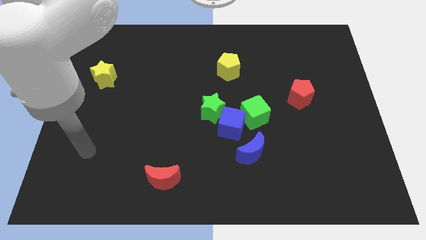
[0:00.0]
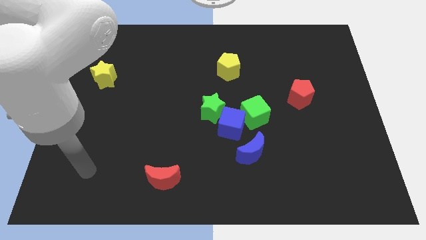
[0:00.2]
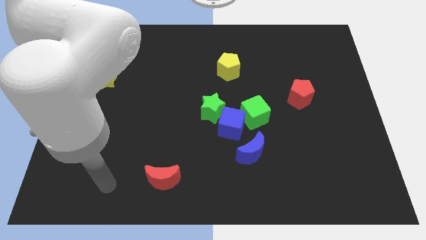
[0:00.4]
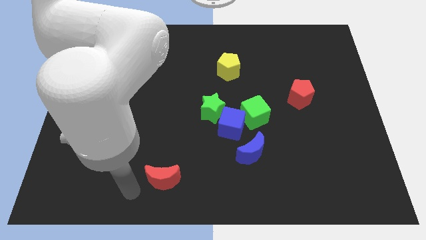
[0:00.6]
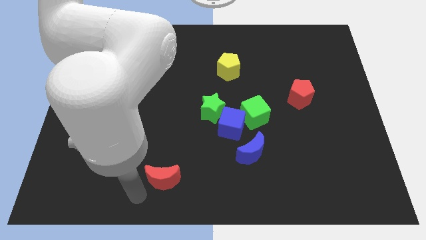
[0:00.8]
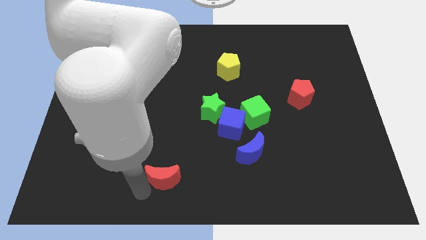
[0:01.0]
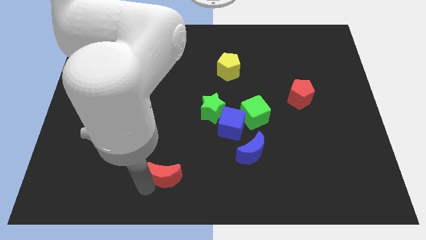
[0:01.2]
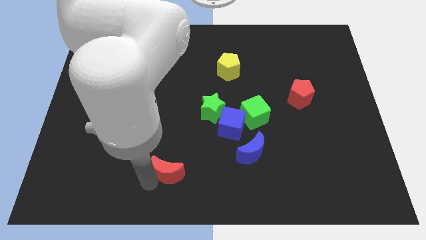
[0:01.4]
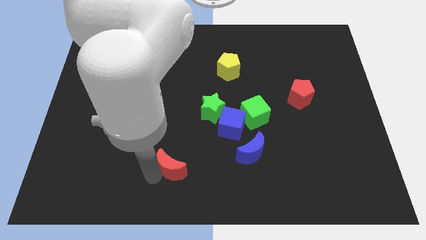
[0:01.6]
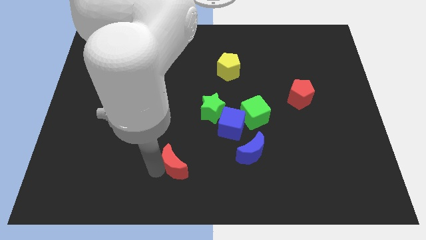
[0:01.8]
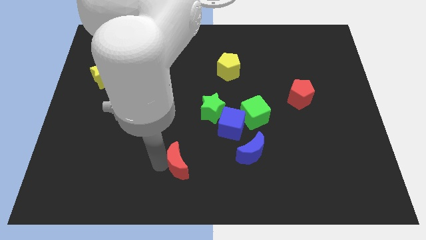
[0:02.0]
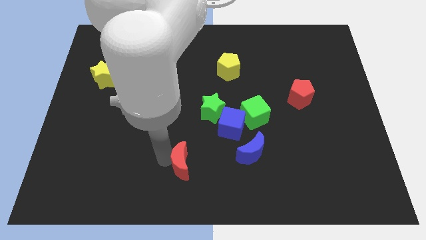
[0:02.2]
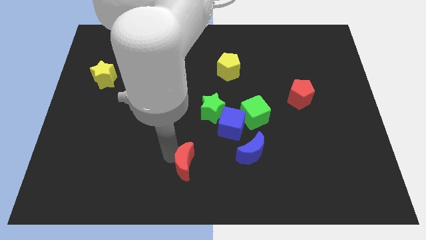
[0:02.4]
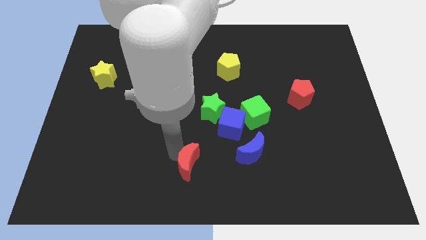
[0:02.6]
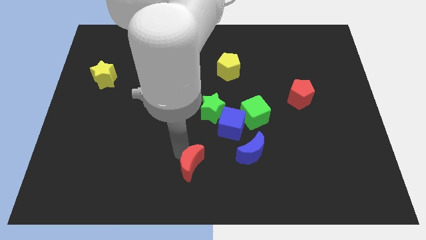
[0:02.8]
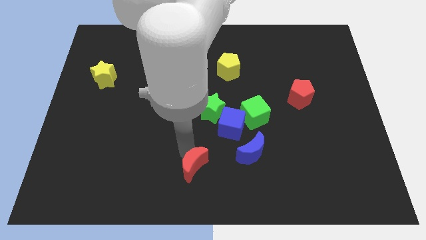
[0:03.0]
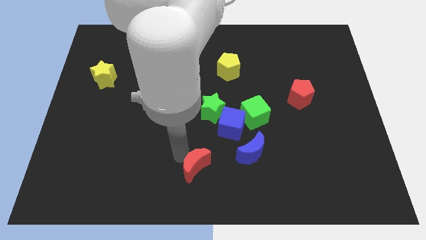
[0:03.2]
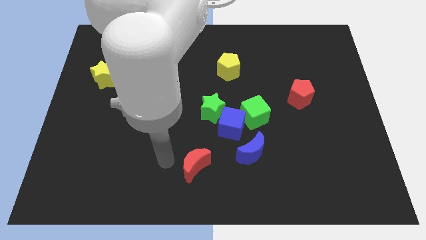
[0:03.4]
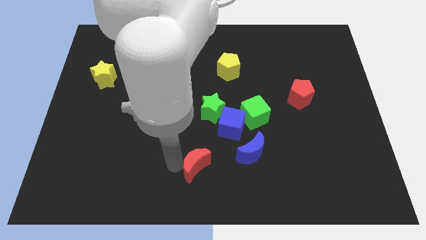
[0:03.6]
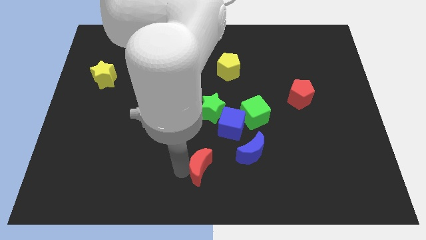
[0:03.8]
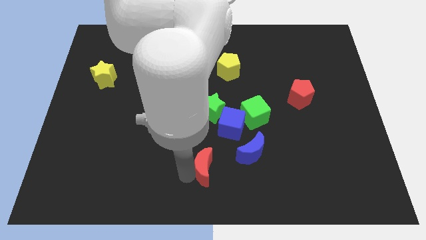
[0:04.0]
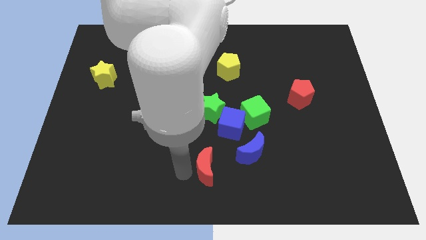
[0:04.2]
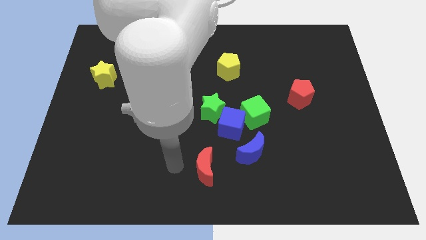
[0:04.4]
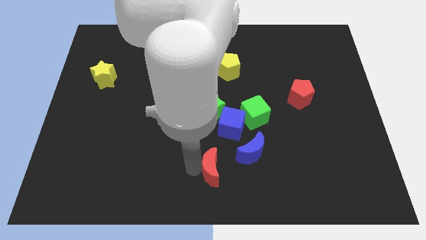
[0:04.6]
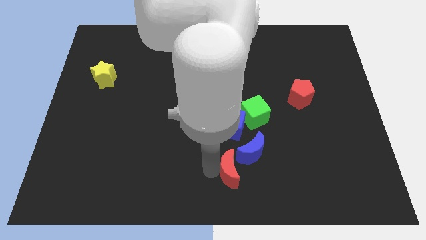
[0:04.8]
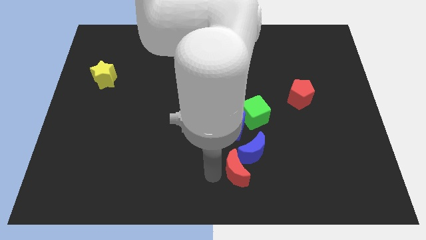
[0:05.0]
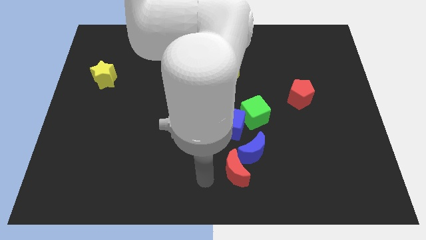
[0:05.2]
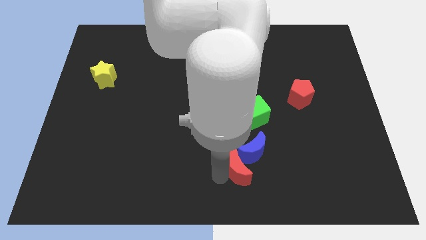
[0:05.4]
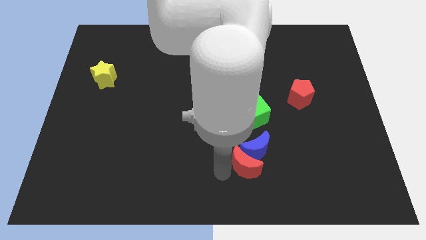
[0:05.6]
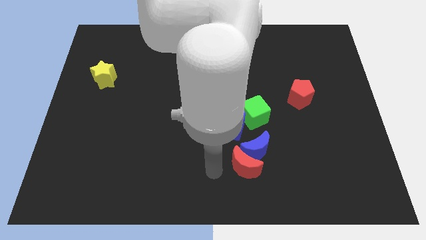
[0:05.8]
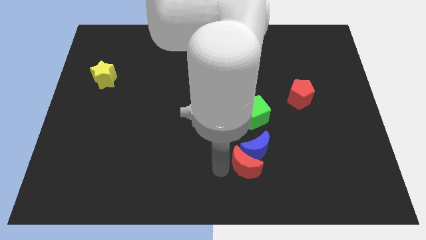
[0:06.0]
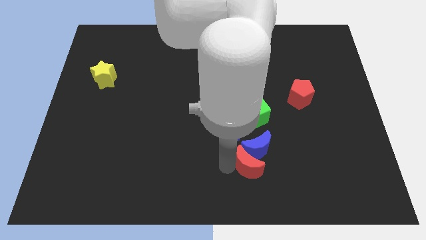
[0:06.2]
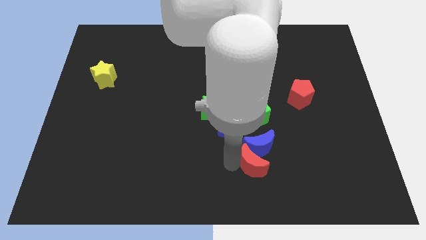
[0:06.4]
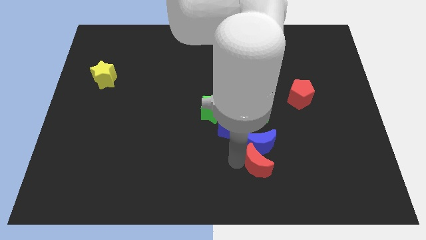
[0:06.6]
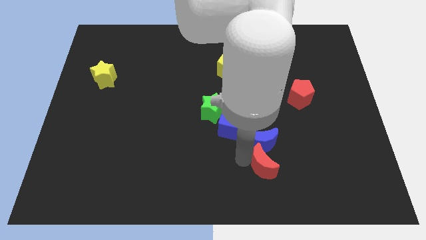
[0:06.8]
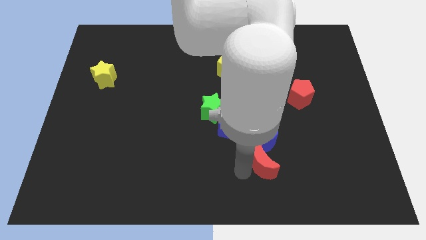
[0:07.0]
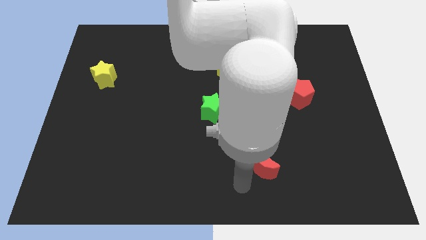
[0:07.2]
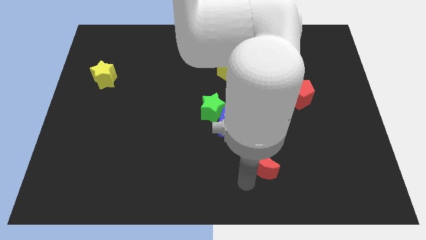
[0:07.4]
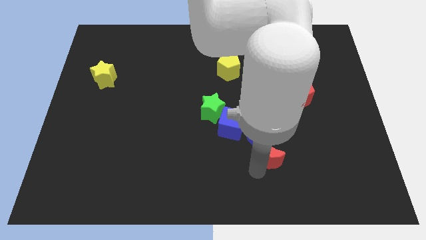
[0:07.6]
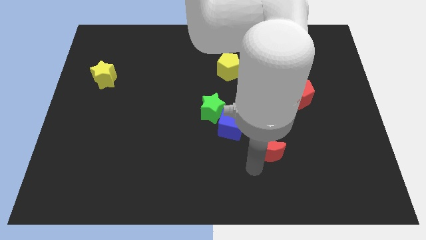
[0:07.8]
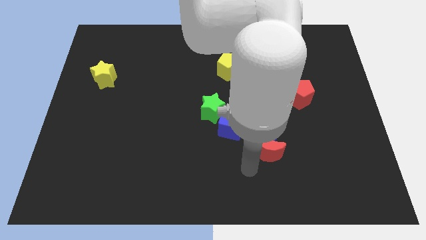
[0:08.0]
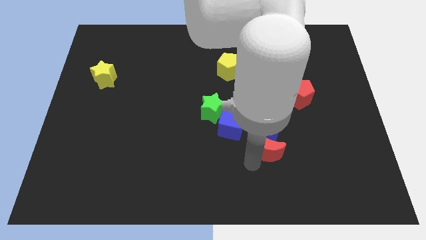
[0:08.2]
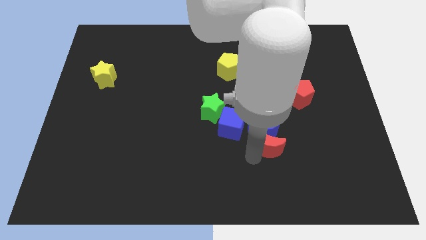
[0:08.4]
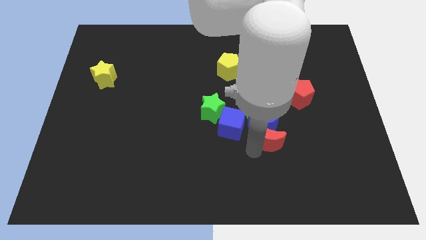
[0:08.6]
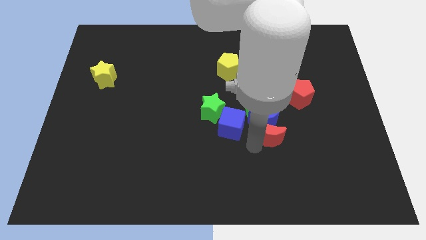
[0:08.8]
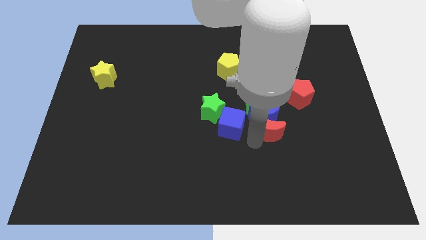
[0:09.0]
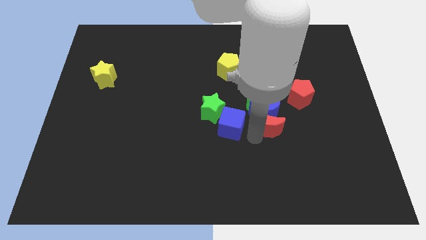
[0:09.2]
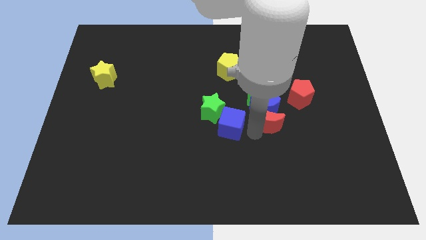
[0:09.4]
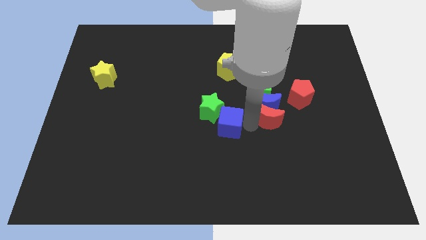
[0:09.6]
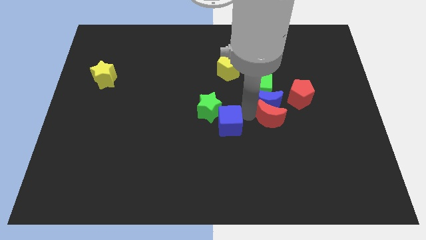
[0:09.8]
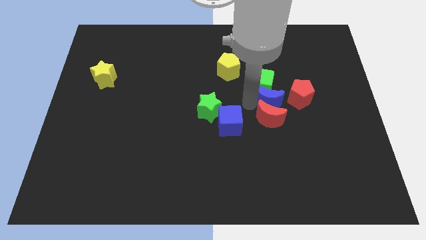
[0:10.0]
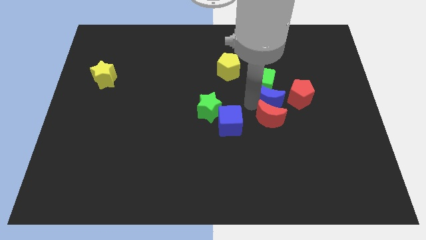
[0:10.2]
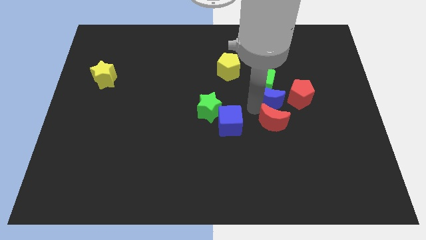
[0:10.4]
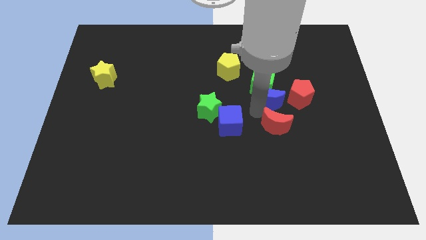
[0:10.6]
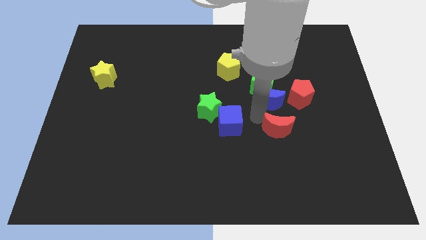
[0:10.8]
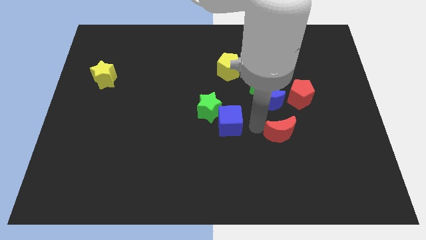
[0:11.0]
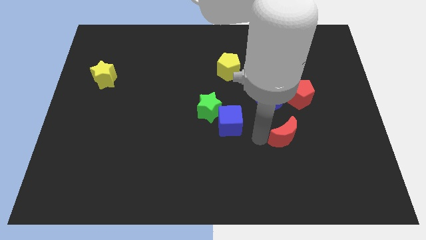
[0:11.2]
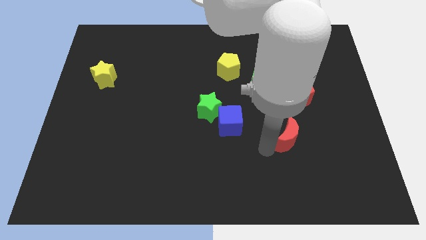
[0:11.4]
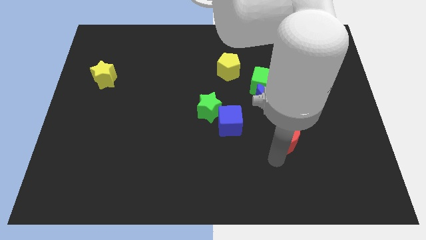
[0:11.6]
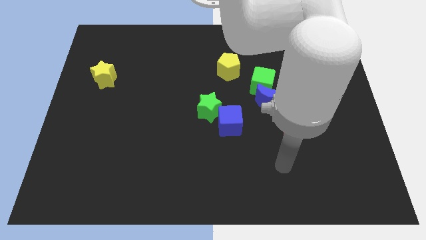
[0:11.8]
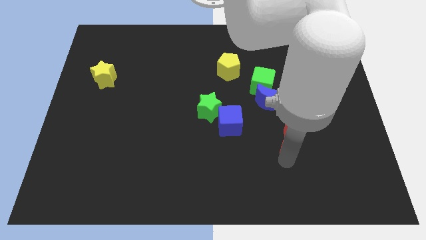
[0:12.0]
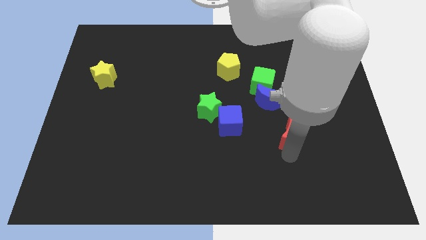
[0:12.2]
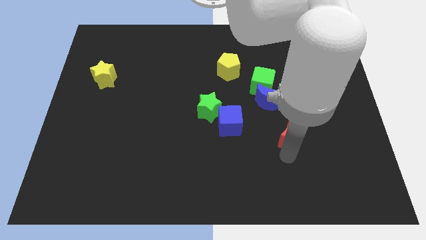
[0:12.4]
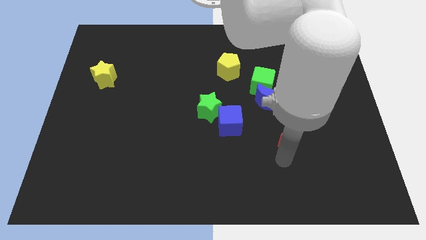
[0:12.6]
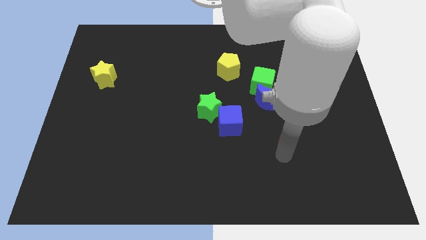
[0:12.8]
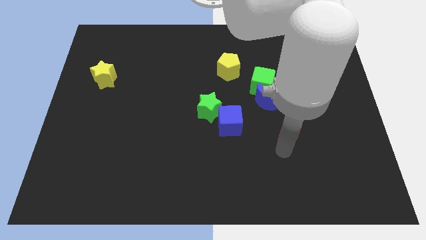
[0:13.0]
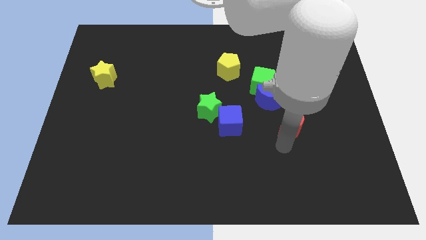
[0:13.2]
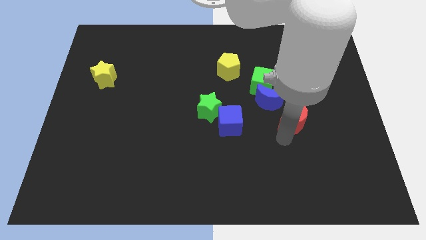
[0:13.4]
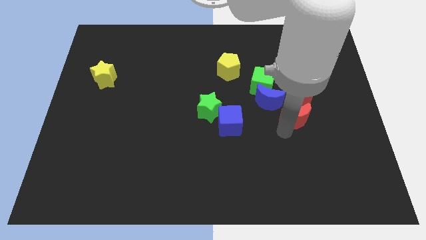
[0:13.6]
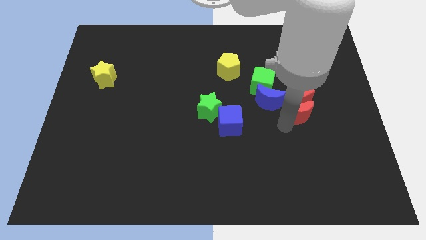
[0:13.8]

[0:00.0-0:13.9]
push the red moon next to the red pentagon

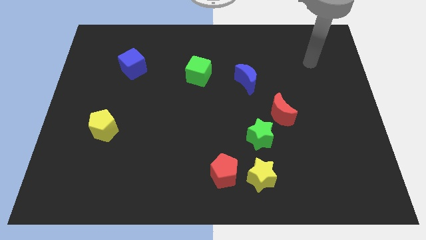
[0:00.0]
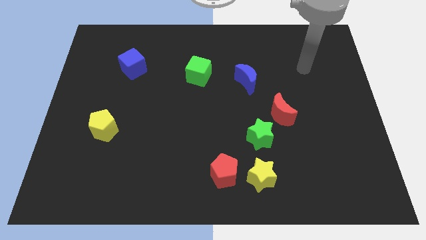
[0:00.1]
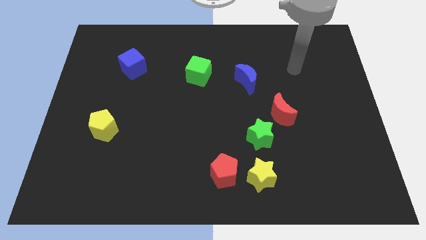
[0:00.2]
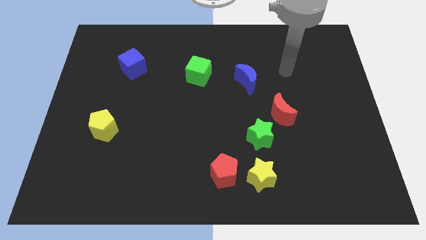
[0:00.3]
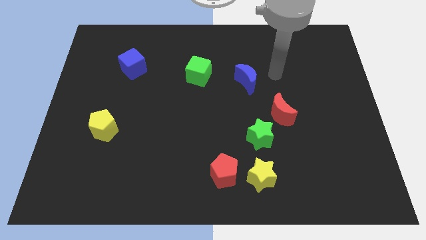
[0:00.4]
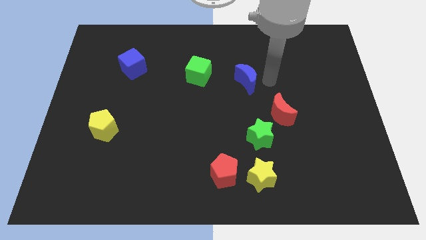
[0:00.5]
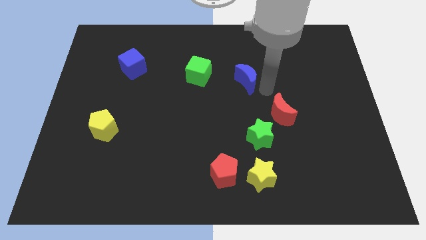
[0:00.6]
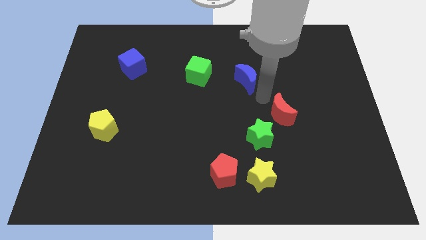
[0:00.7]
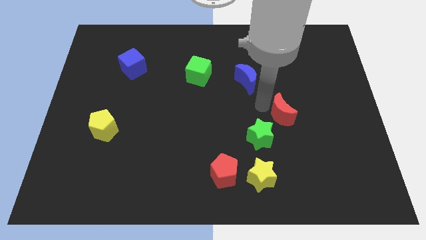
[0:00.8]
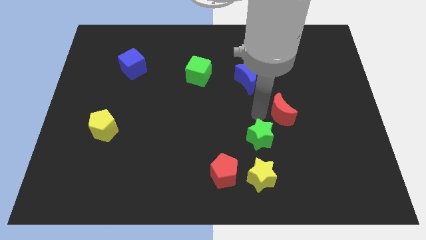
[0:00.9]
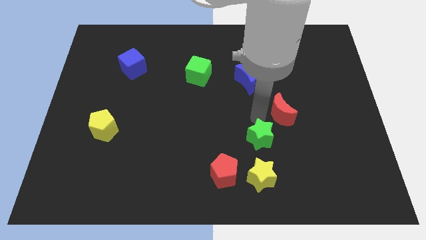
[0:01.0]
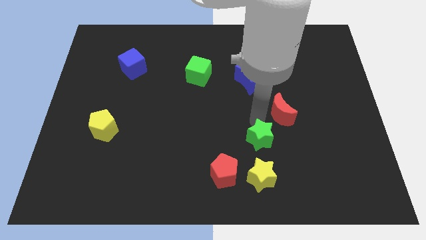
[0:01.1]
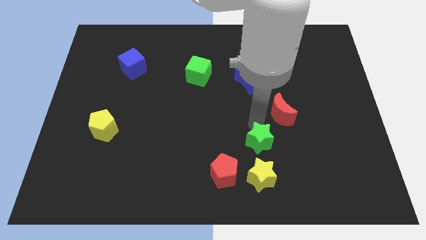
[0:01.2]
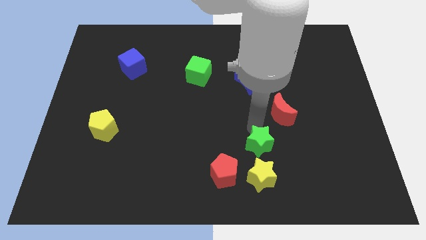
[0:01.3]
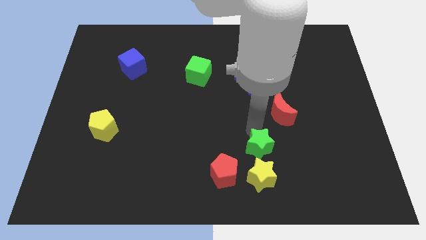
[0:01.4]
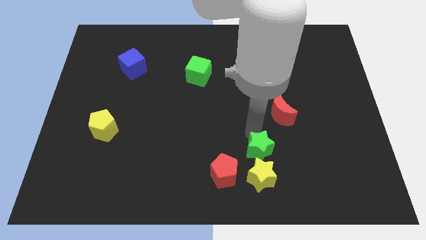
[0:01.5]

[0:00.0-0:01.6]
move the green star to the yellow star
